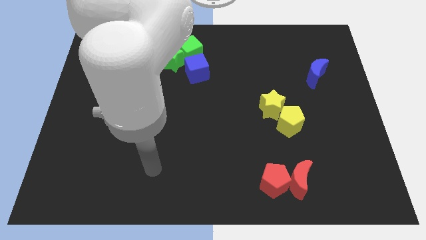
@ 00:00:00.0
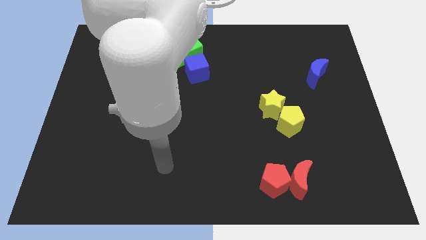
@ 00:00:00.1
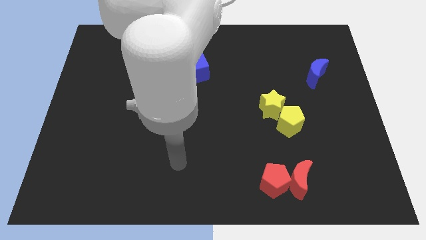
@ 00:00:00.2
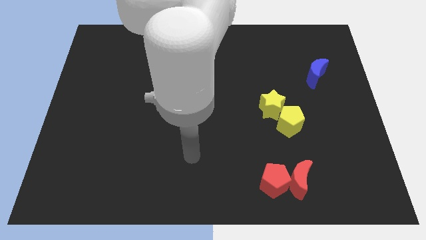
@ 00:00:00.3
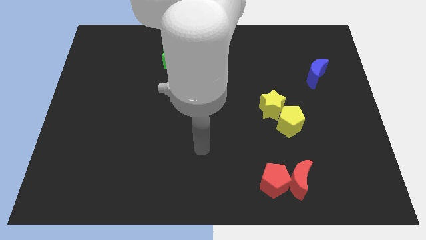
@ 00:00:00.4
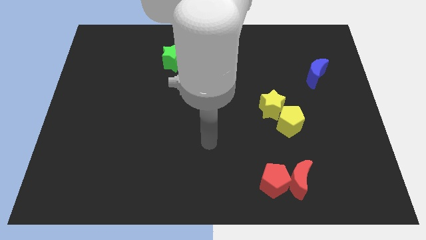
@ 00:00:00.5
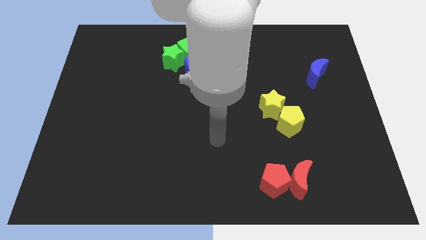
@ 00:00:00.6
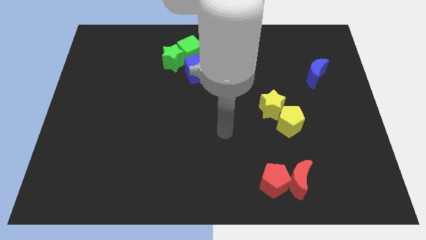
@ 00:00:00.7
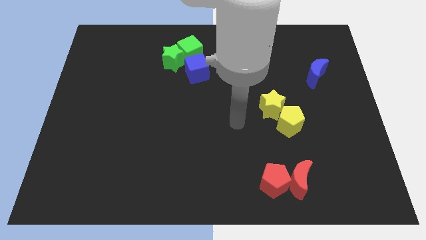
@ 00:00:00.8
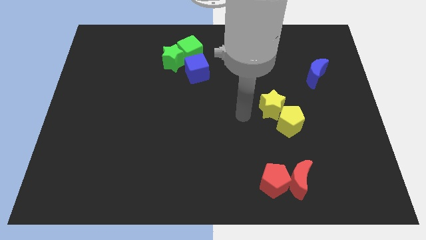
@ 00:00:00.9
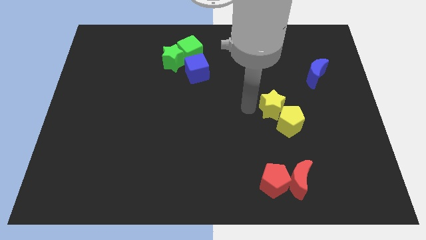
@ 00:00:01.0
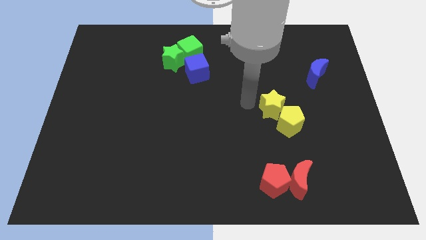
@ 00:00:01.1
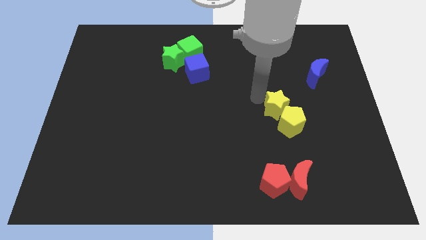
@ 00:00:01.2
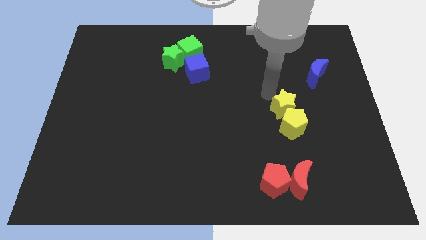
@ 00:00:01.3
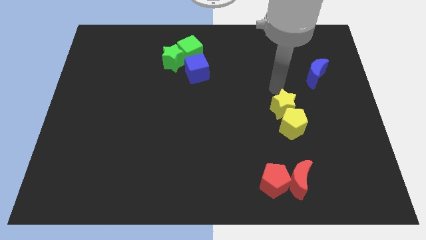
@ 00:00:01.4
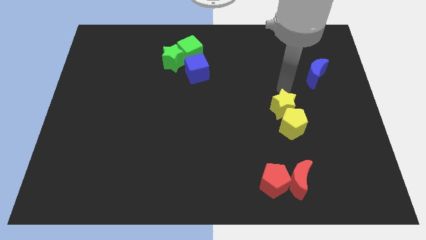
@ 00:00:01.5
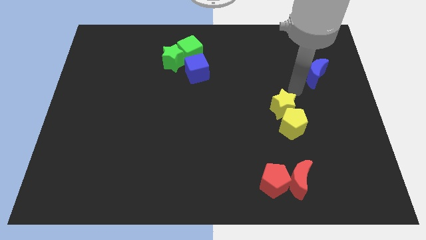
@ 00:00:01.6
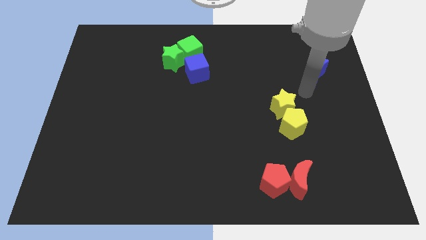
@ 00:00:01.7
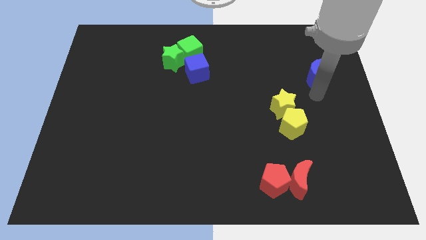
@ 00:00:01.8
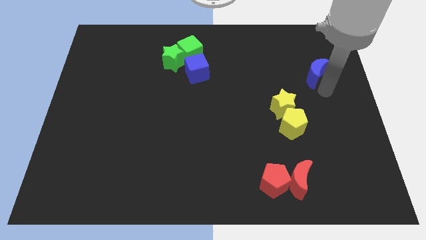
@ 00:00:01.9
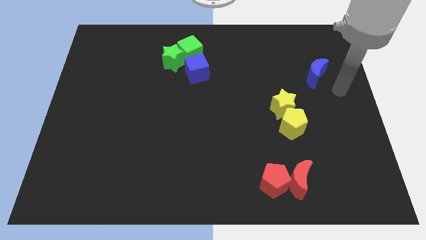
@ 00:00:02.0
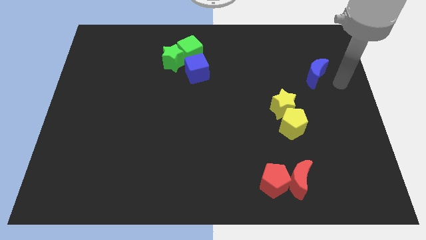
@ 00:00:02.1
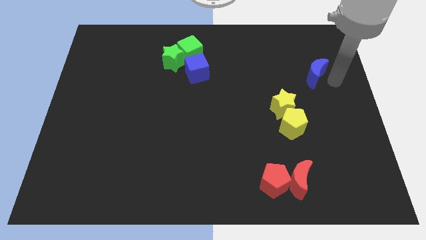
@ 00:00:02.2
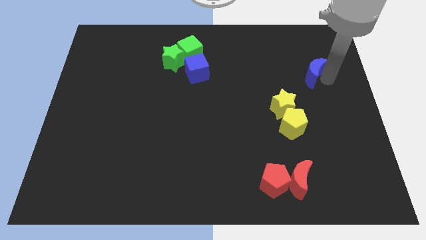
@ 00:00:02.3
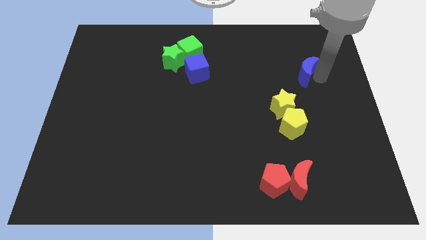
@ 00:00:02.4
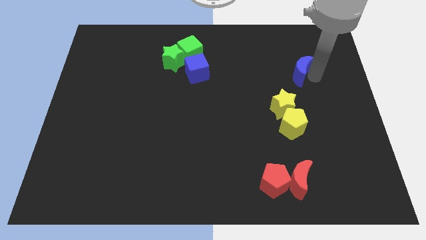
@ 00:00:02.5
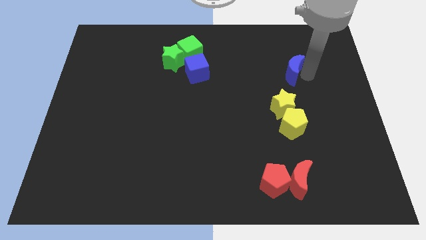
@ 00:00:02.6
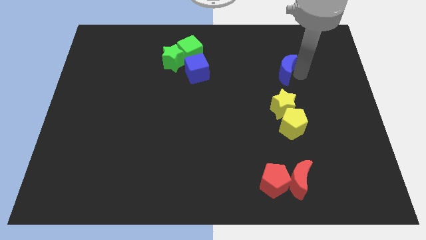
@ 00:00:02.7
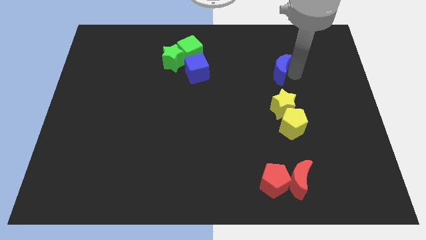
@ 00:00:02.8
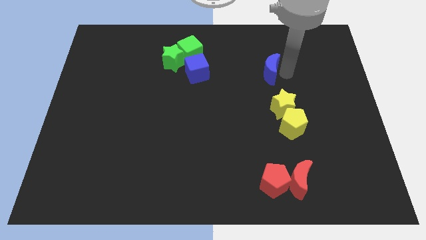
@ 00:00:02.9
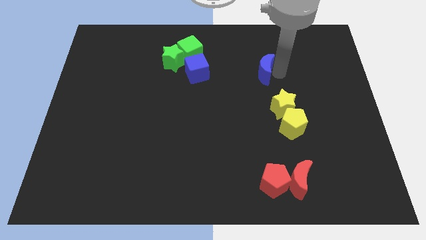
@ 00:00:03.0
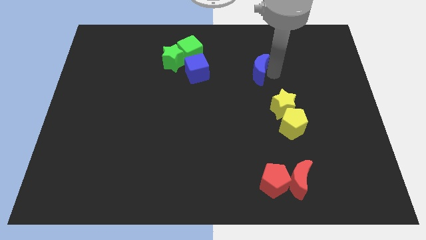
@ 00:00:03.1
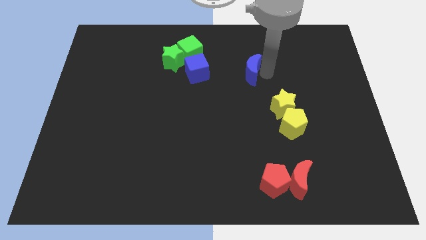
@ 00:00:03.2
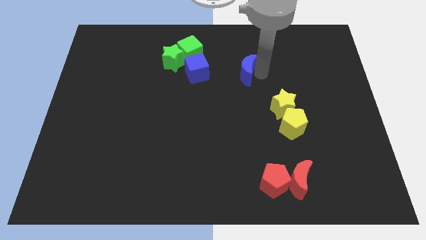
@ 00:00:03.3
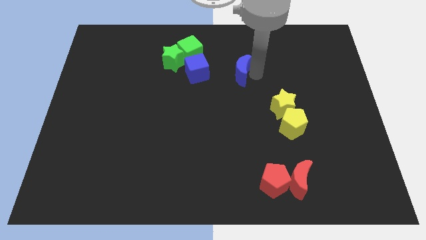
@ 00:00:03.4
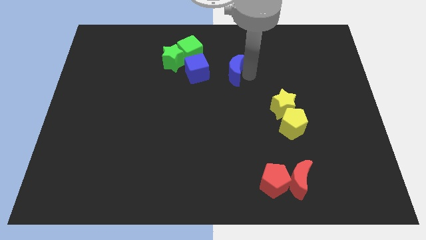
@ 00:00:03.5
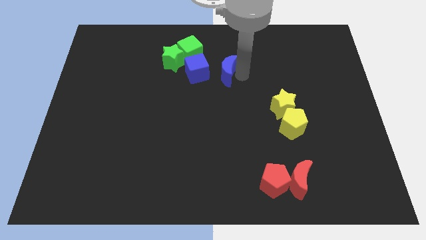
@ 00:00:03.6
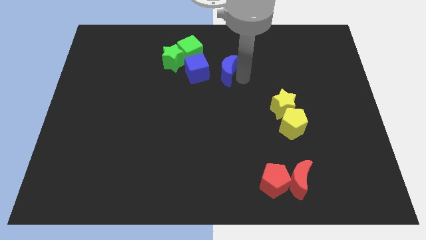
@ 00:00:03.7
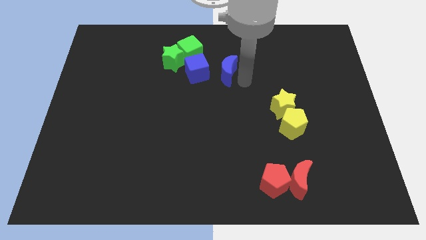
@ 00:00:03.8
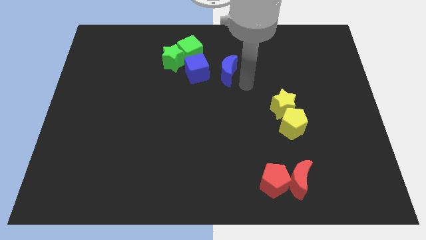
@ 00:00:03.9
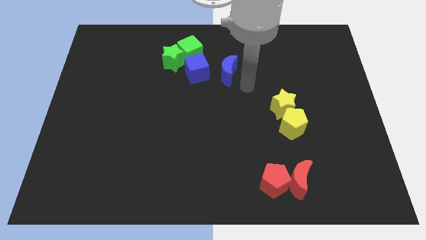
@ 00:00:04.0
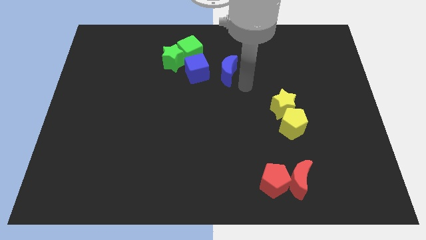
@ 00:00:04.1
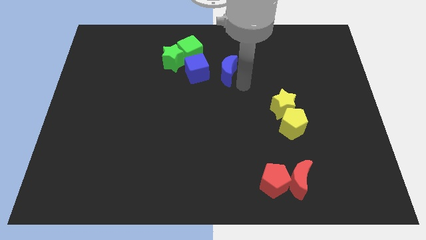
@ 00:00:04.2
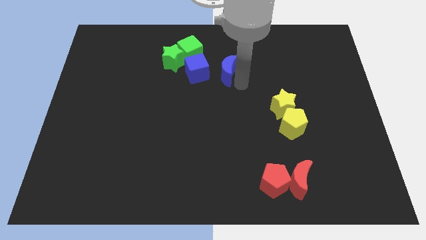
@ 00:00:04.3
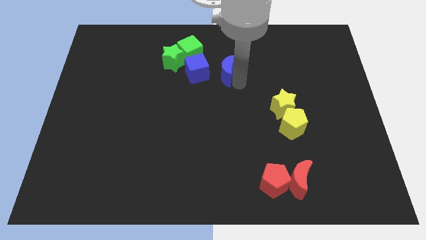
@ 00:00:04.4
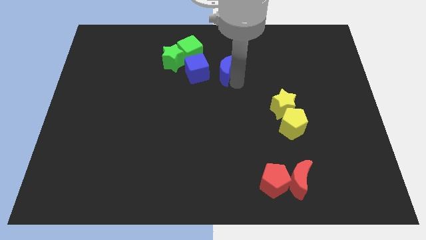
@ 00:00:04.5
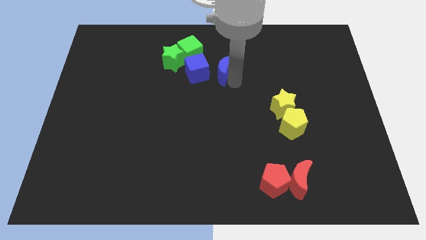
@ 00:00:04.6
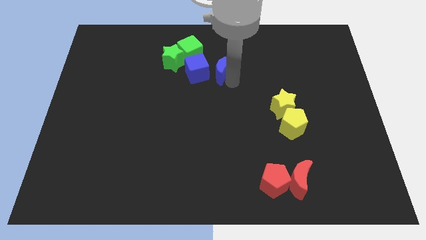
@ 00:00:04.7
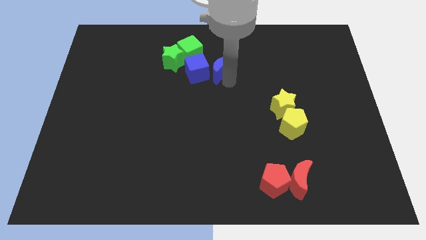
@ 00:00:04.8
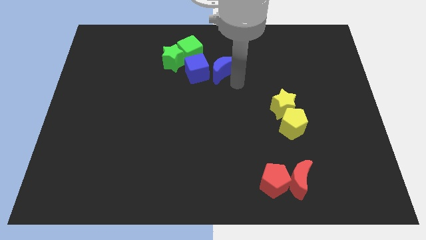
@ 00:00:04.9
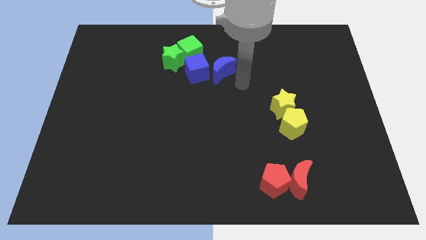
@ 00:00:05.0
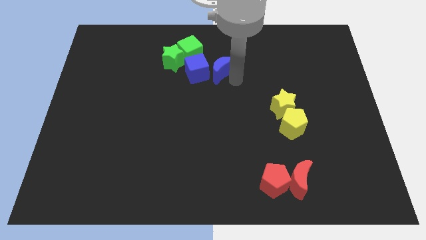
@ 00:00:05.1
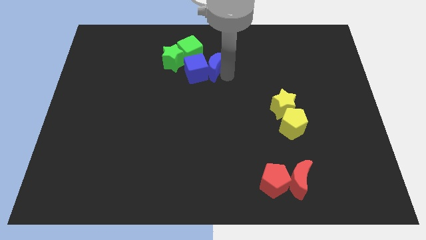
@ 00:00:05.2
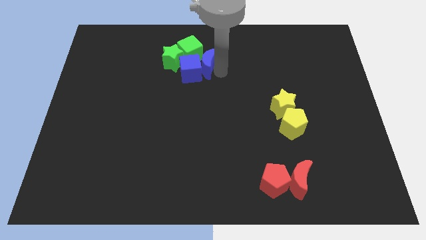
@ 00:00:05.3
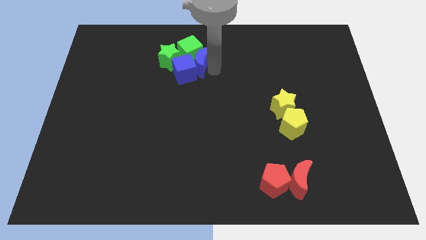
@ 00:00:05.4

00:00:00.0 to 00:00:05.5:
put the blue moon next to the green cube

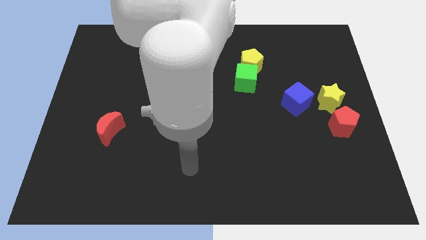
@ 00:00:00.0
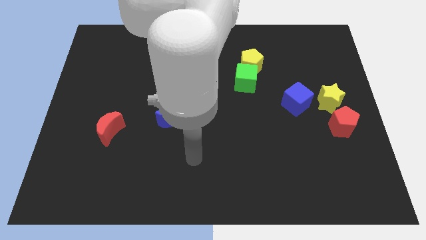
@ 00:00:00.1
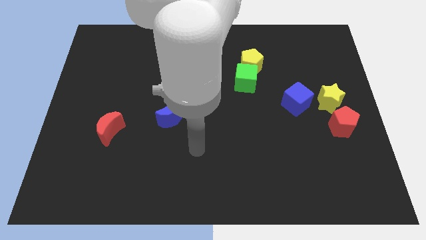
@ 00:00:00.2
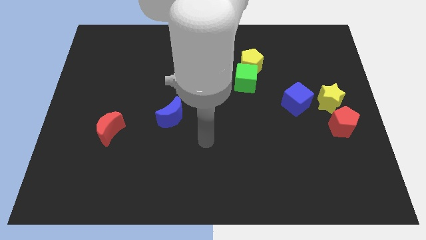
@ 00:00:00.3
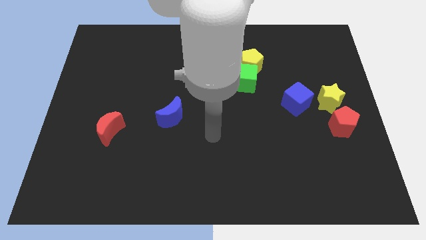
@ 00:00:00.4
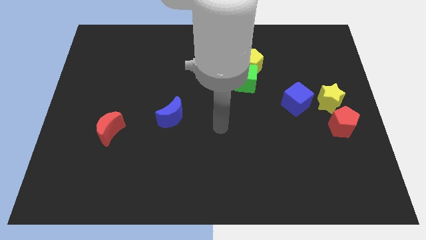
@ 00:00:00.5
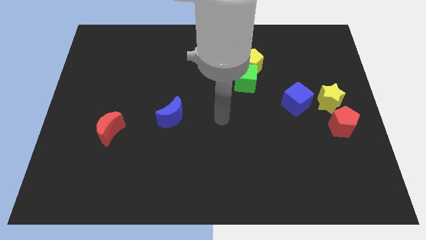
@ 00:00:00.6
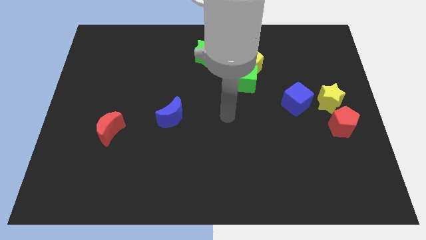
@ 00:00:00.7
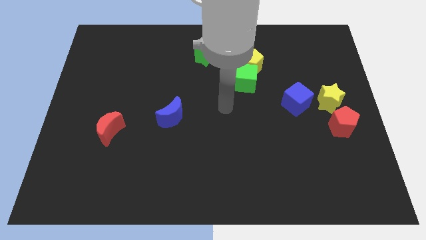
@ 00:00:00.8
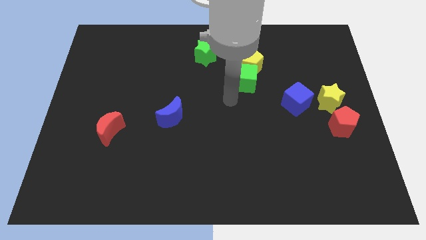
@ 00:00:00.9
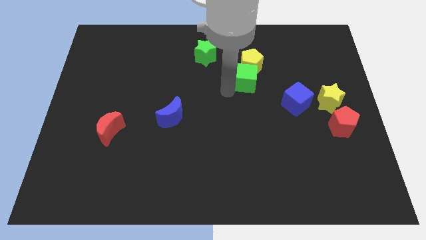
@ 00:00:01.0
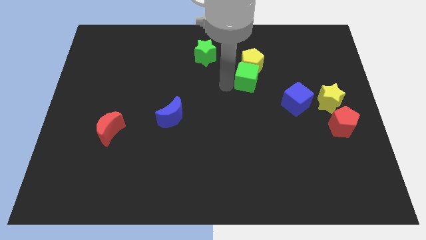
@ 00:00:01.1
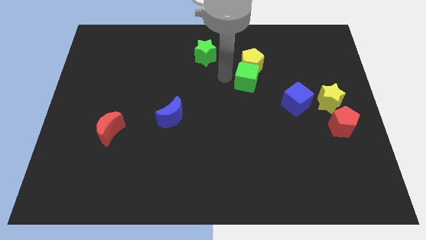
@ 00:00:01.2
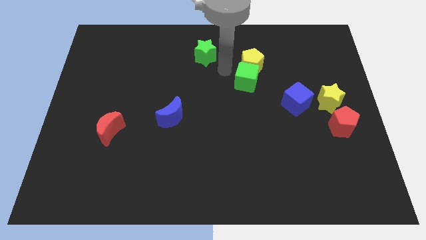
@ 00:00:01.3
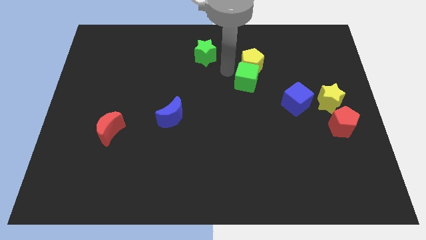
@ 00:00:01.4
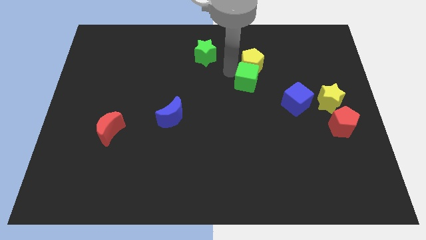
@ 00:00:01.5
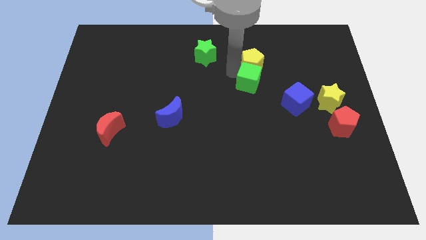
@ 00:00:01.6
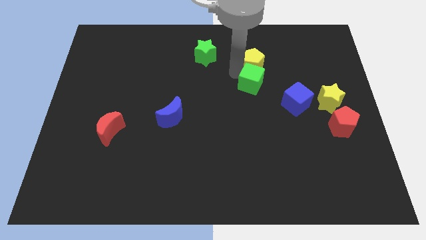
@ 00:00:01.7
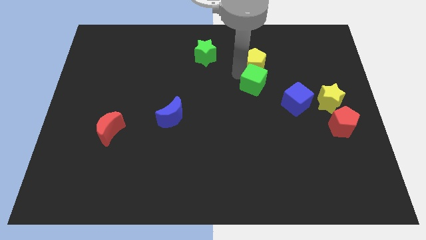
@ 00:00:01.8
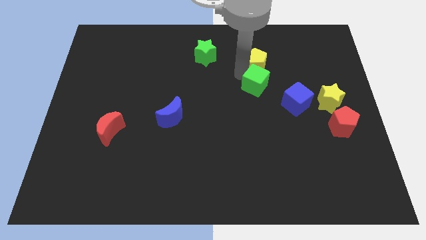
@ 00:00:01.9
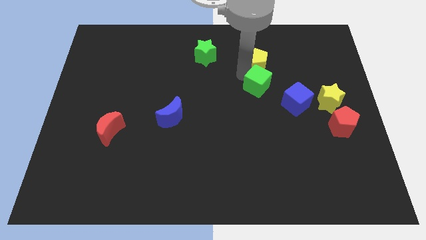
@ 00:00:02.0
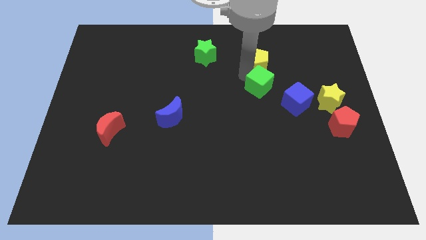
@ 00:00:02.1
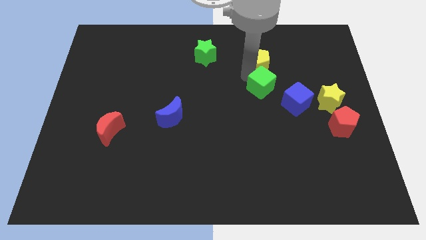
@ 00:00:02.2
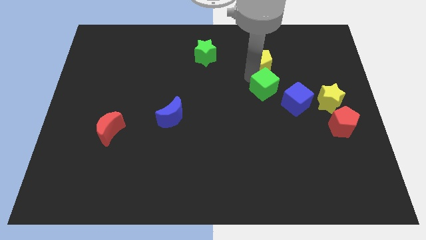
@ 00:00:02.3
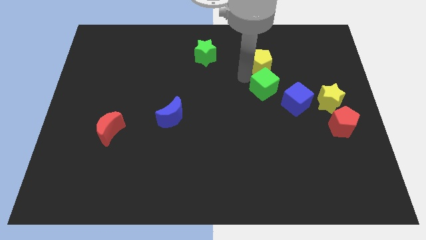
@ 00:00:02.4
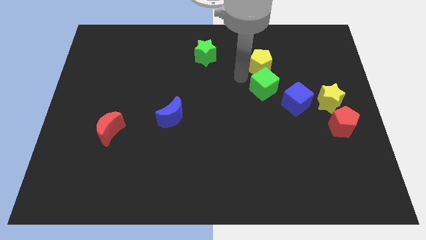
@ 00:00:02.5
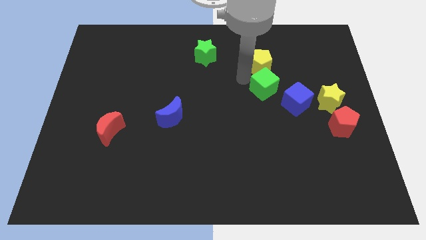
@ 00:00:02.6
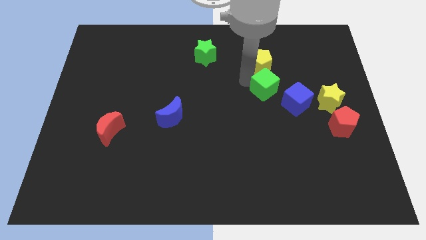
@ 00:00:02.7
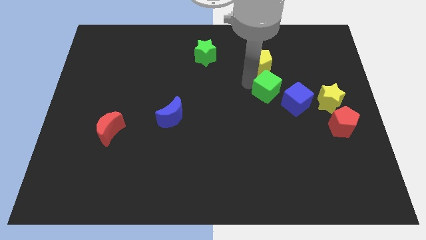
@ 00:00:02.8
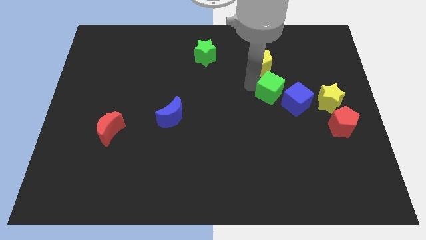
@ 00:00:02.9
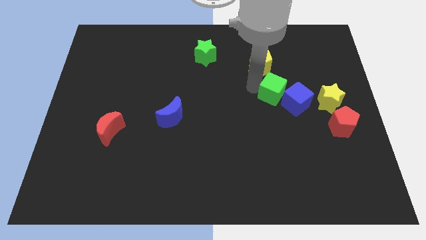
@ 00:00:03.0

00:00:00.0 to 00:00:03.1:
move the green cube towards the blue cube
